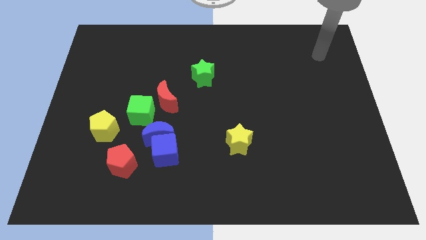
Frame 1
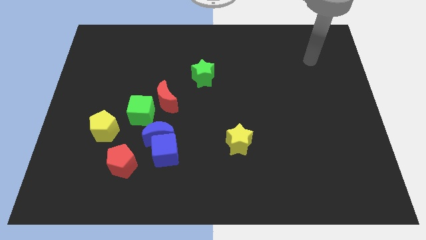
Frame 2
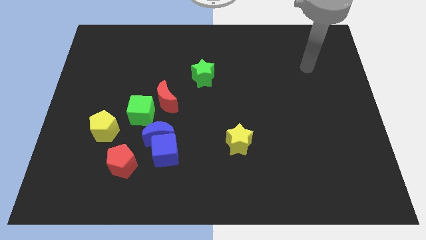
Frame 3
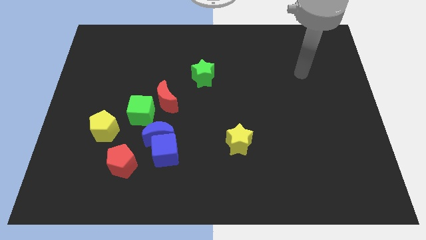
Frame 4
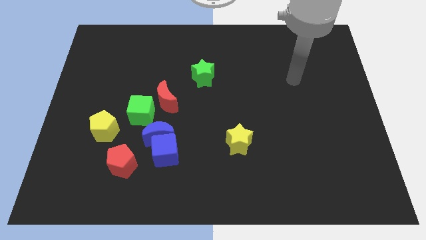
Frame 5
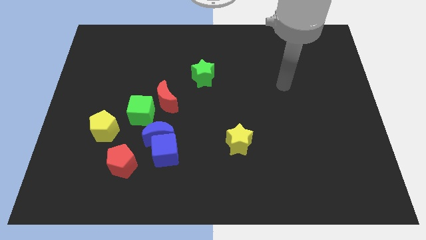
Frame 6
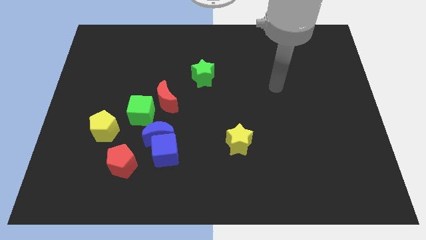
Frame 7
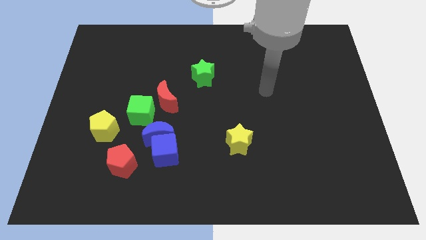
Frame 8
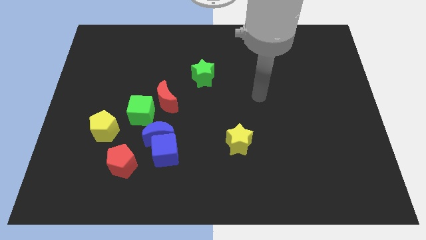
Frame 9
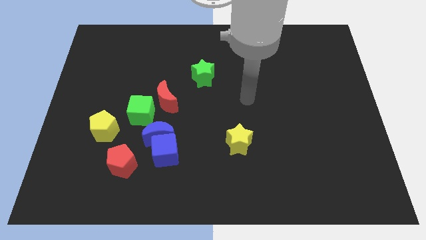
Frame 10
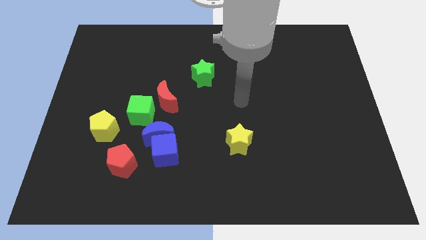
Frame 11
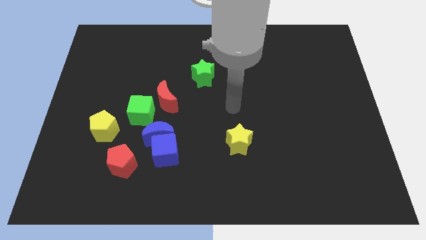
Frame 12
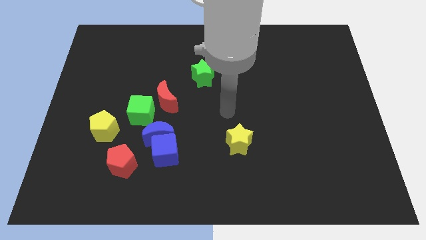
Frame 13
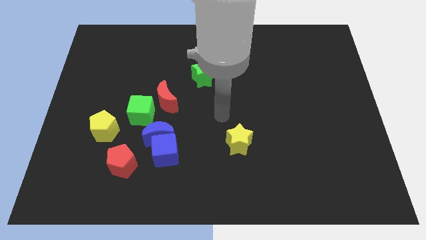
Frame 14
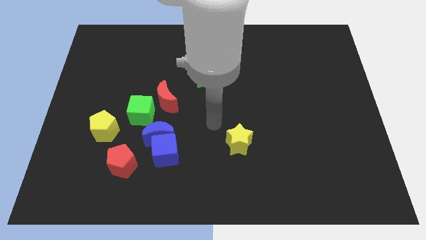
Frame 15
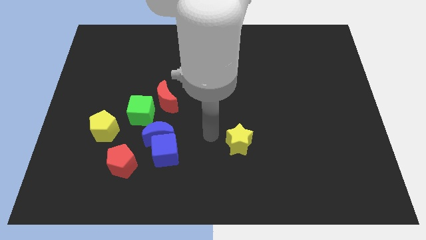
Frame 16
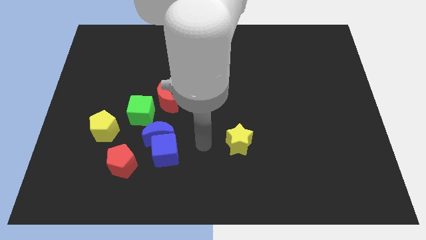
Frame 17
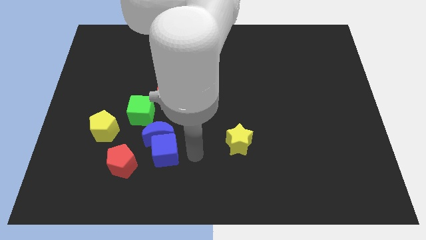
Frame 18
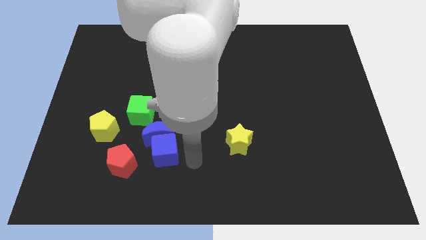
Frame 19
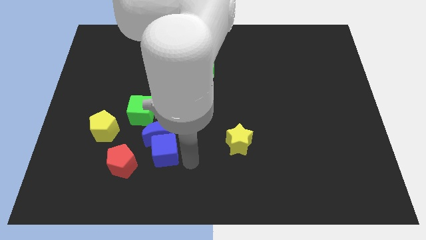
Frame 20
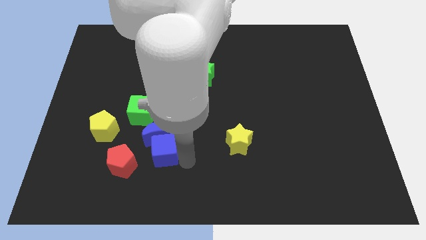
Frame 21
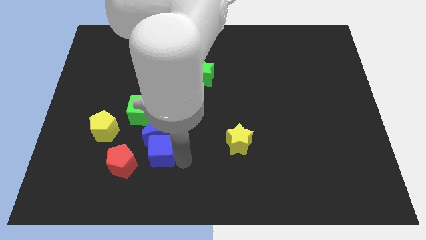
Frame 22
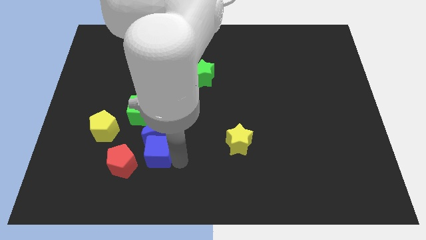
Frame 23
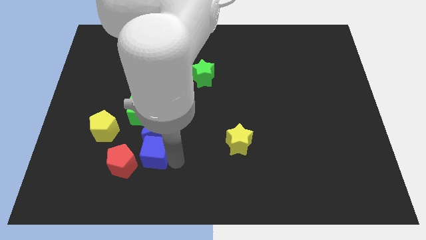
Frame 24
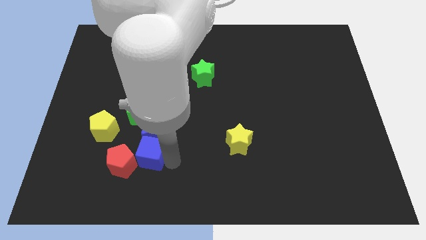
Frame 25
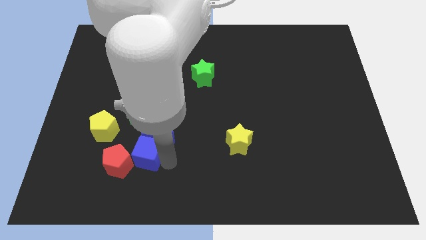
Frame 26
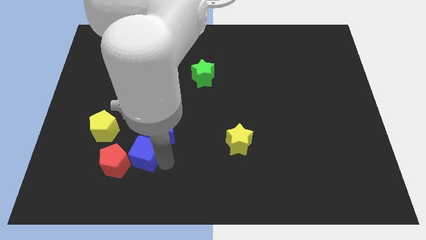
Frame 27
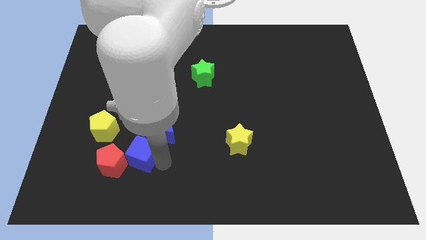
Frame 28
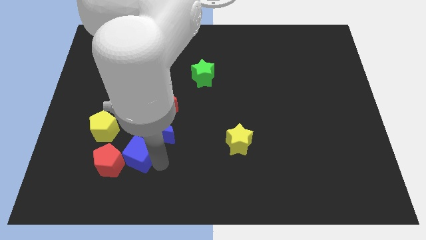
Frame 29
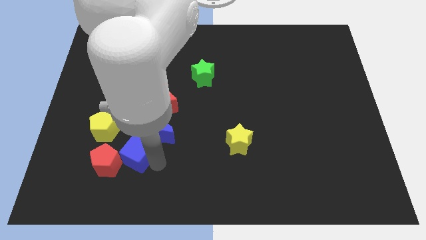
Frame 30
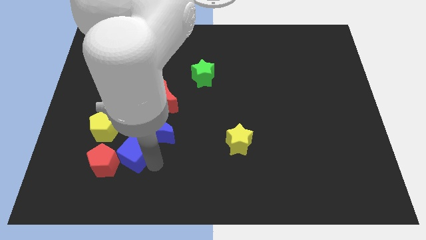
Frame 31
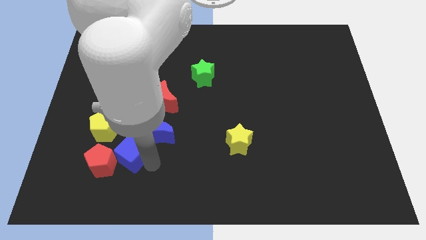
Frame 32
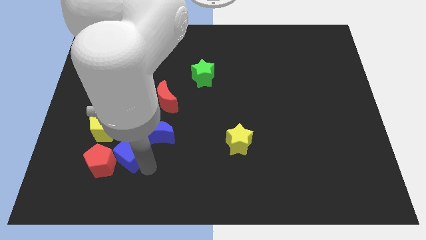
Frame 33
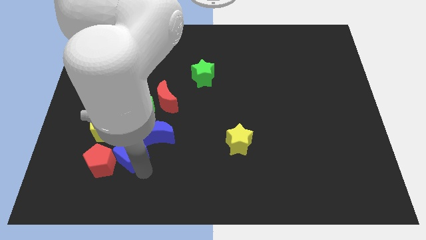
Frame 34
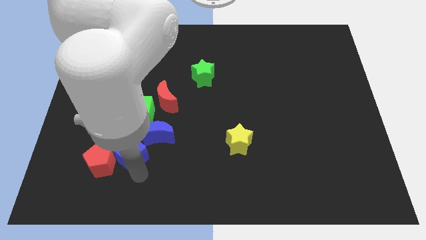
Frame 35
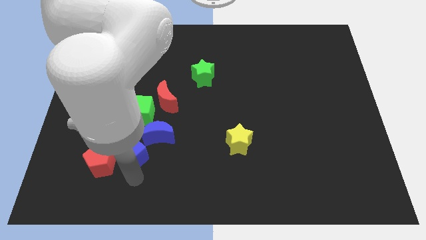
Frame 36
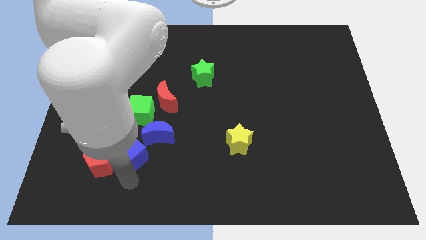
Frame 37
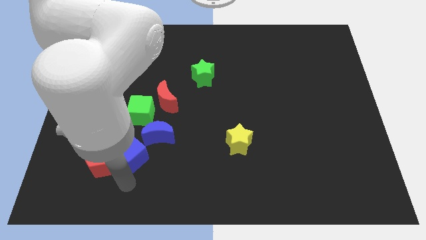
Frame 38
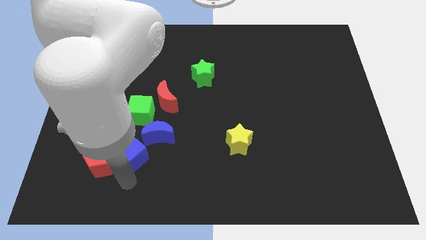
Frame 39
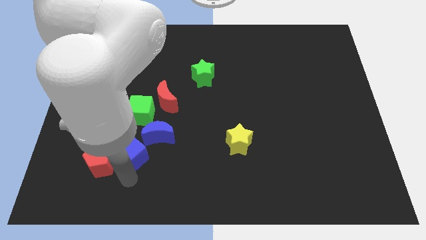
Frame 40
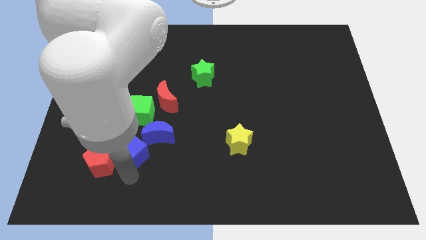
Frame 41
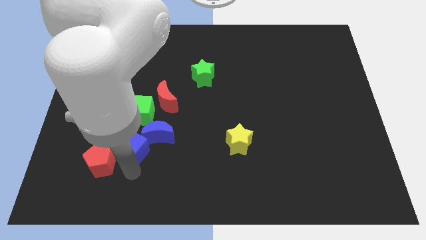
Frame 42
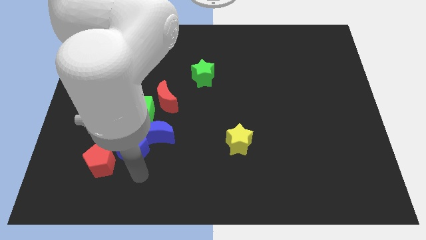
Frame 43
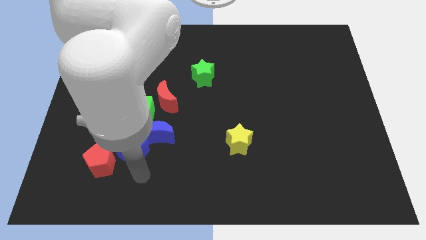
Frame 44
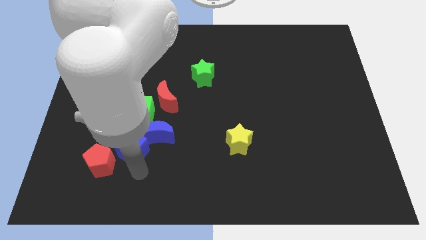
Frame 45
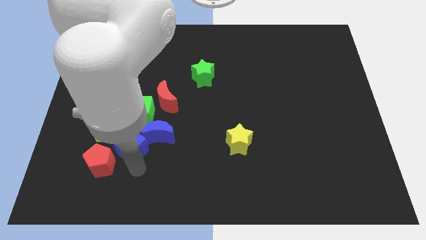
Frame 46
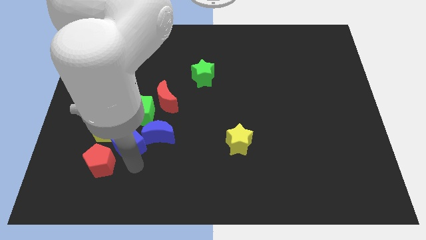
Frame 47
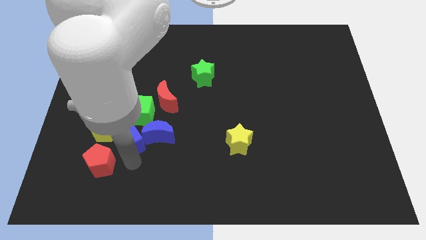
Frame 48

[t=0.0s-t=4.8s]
slightly move the blue cube diagonally up and left

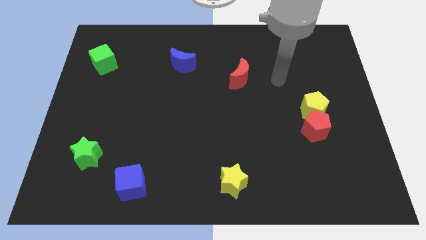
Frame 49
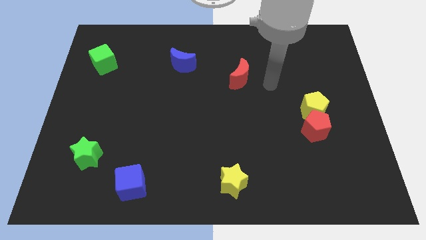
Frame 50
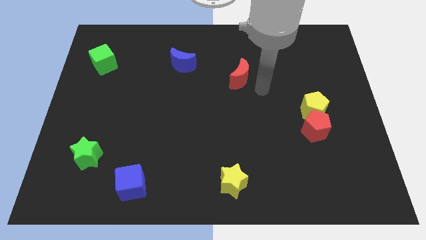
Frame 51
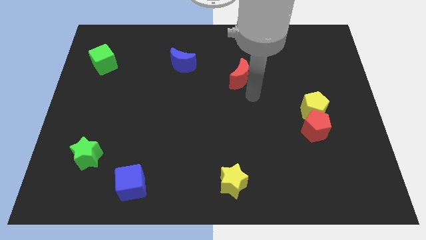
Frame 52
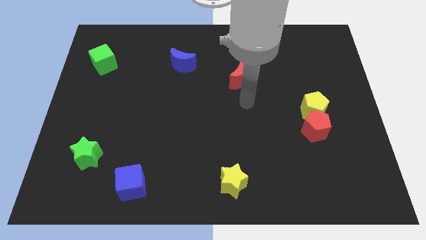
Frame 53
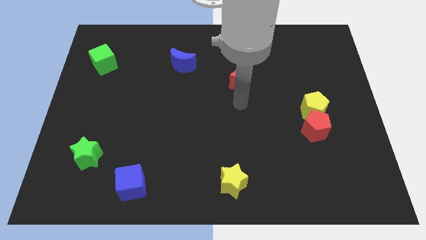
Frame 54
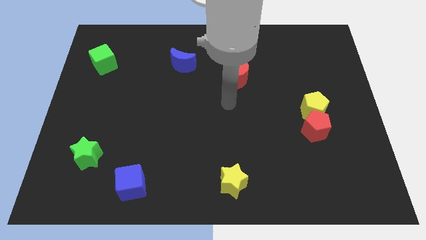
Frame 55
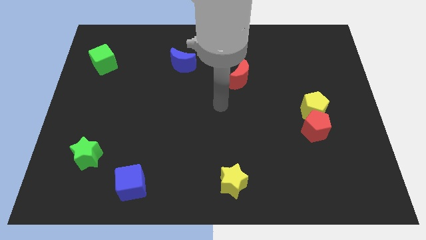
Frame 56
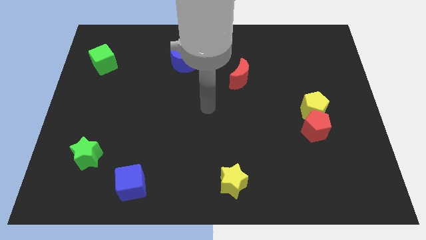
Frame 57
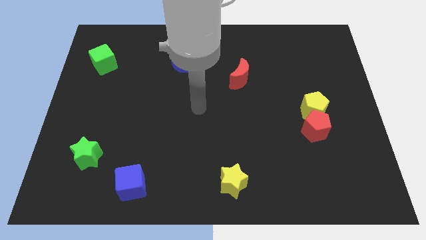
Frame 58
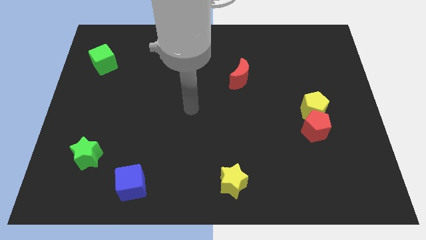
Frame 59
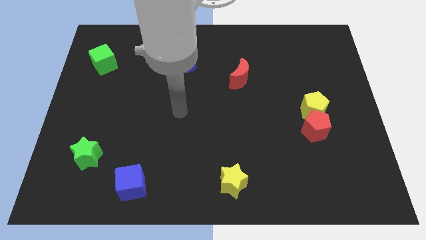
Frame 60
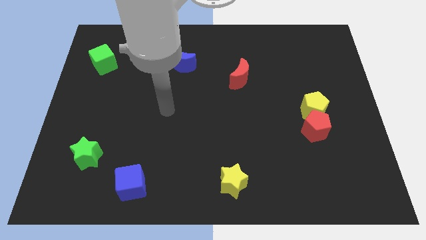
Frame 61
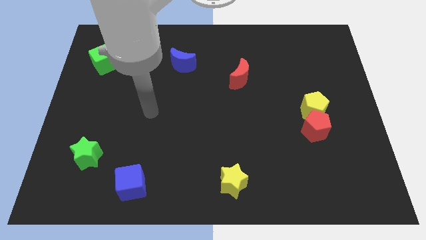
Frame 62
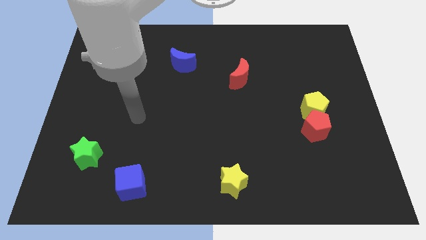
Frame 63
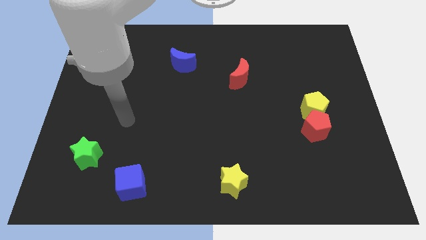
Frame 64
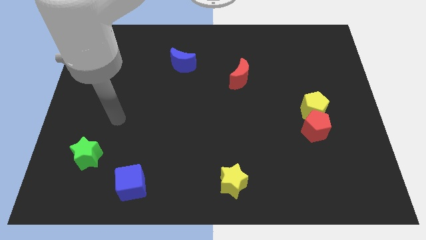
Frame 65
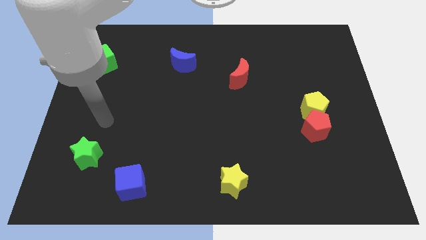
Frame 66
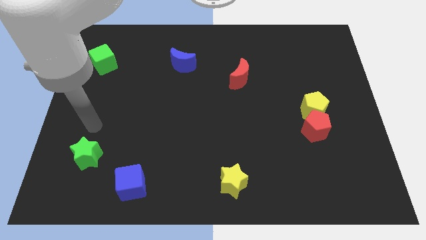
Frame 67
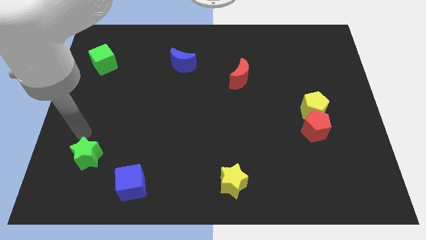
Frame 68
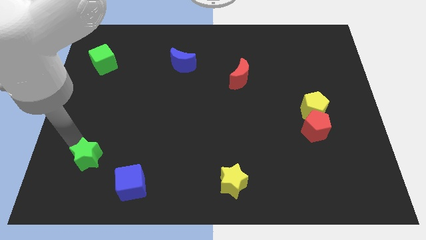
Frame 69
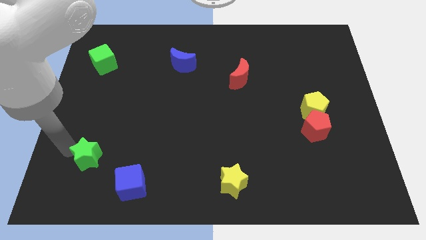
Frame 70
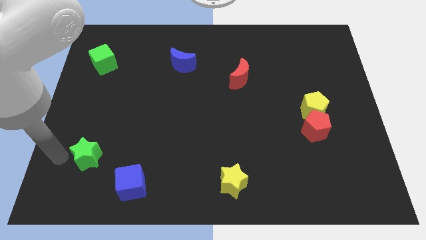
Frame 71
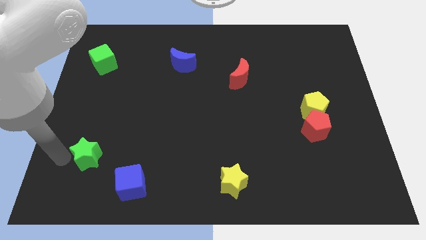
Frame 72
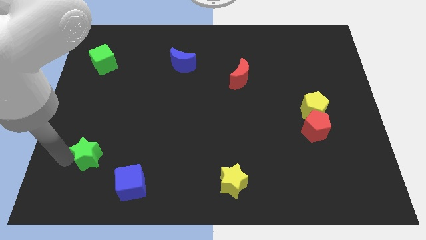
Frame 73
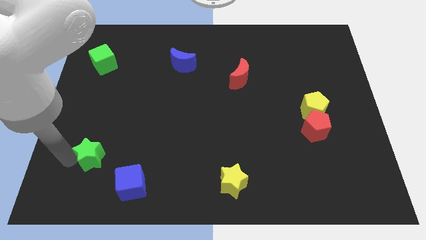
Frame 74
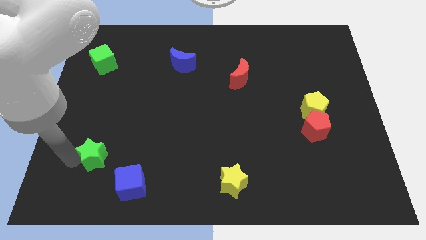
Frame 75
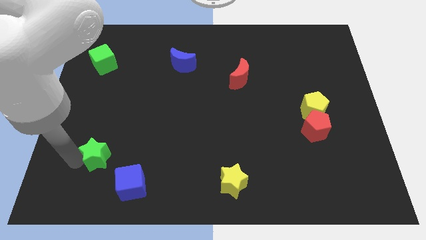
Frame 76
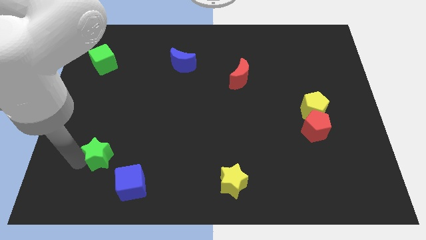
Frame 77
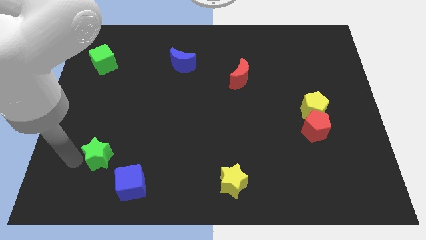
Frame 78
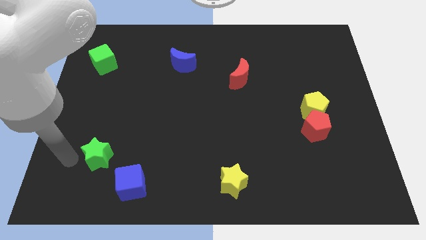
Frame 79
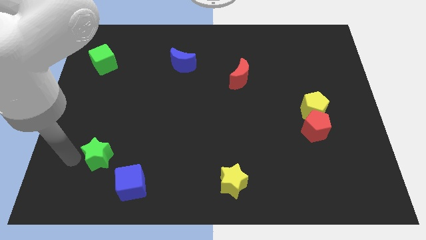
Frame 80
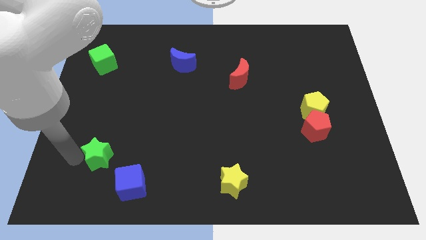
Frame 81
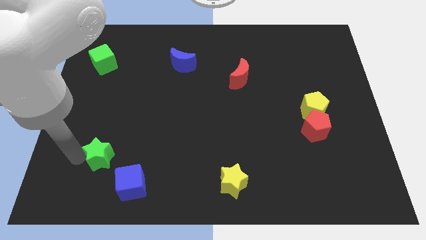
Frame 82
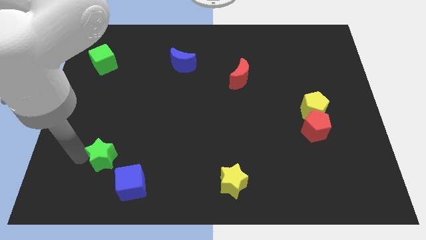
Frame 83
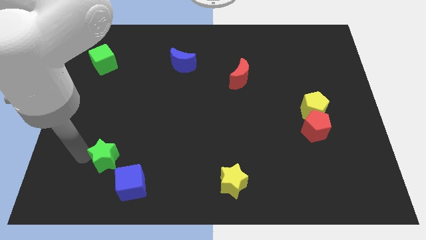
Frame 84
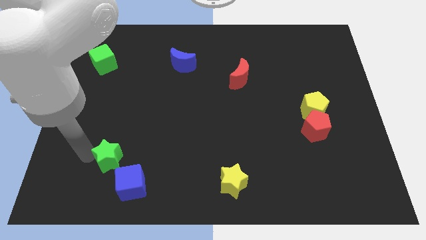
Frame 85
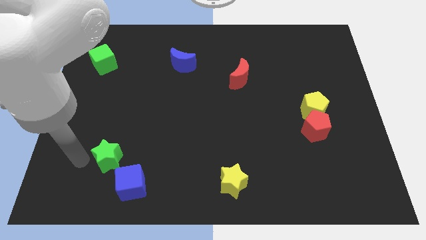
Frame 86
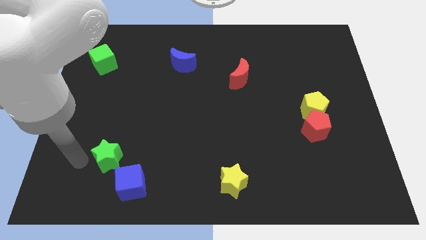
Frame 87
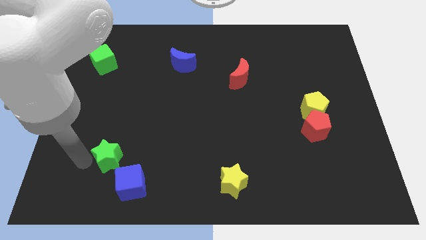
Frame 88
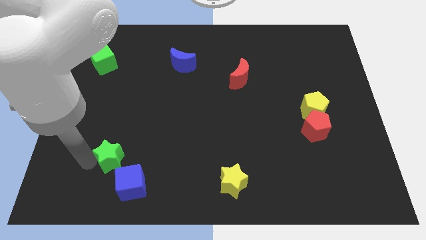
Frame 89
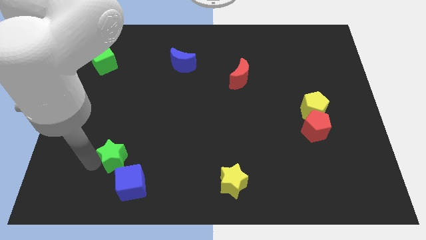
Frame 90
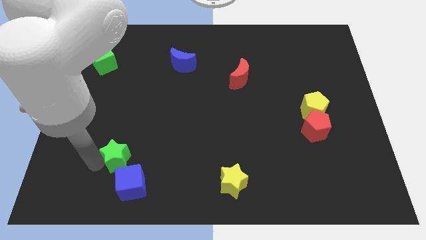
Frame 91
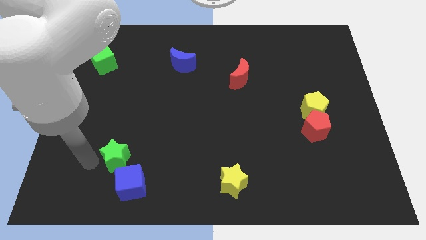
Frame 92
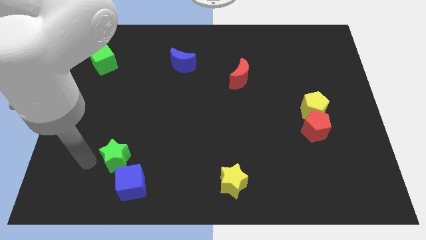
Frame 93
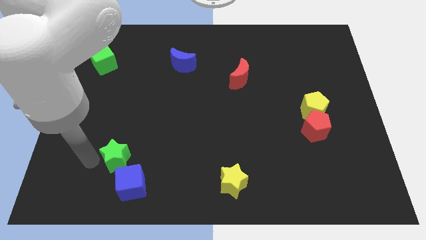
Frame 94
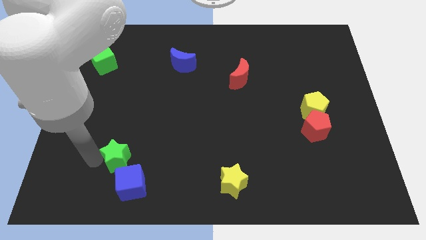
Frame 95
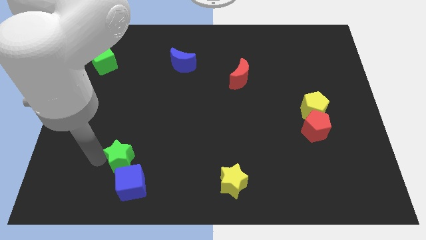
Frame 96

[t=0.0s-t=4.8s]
move the green star right somewhat
